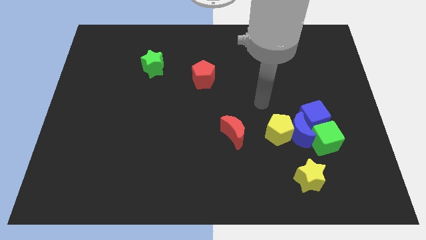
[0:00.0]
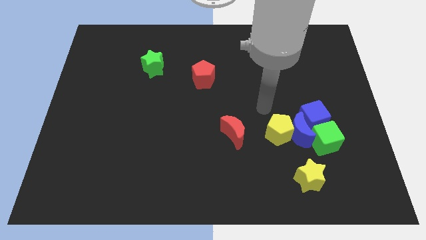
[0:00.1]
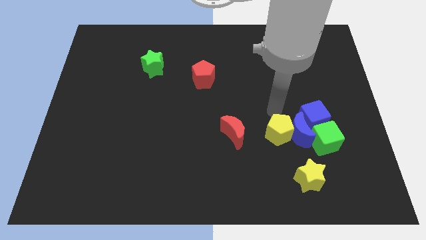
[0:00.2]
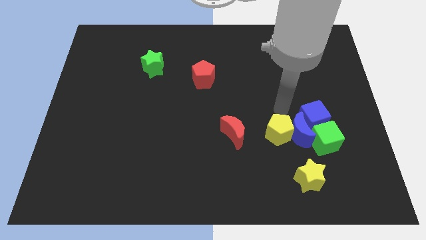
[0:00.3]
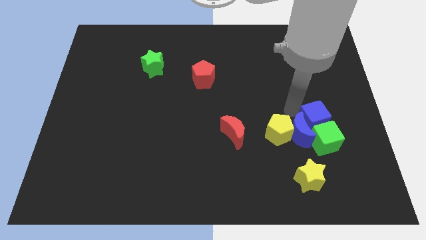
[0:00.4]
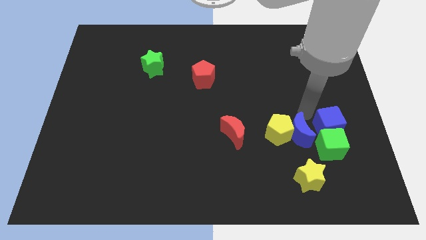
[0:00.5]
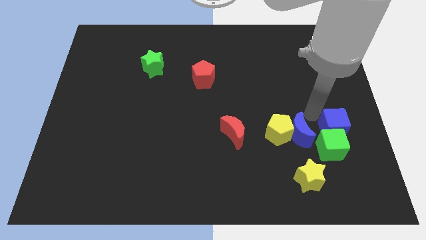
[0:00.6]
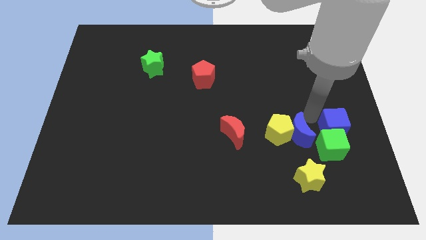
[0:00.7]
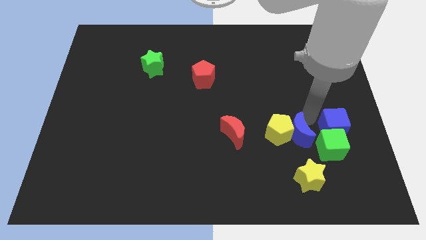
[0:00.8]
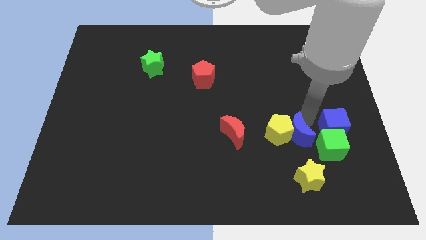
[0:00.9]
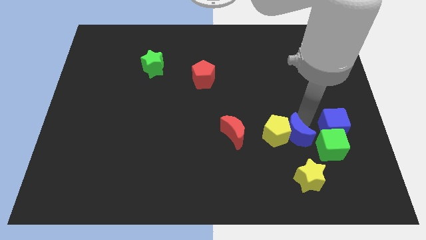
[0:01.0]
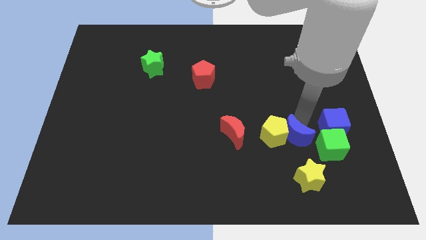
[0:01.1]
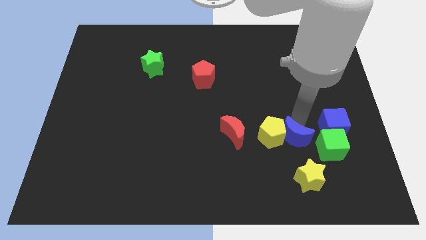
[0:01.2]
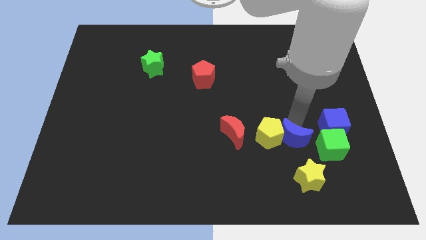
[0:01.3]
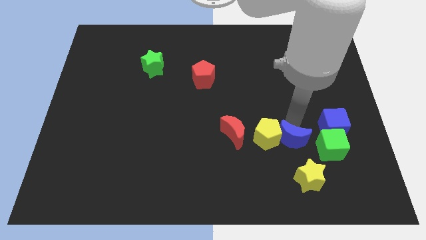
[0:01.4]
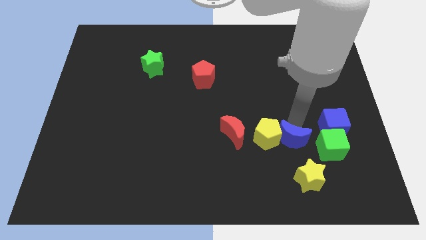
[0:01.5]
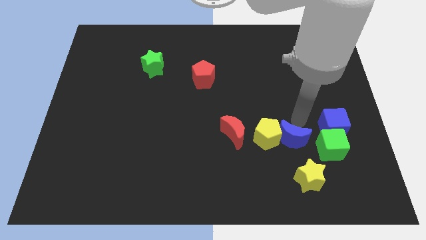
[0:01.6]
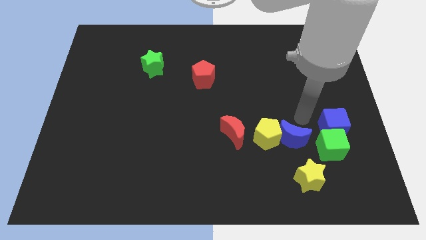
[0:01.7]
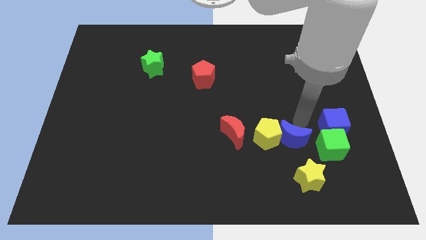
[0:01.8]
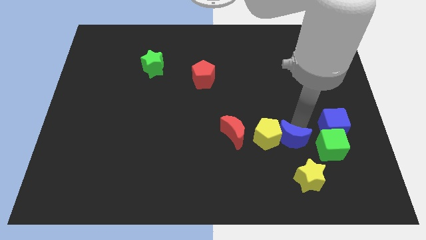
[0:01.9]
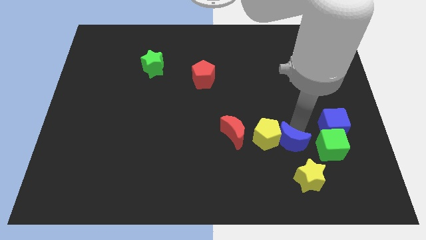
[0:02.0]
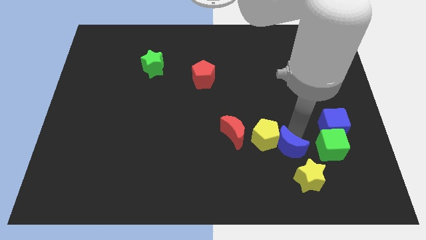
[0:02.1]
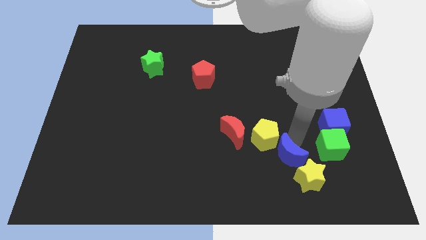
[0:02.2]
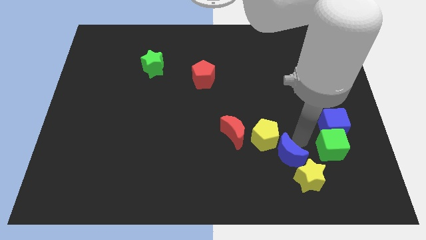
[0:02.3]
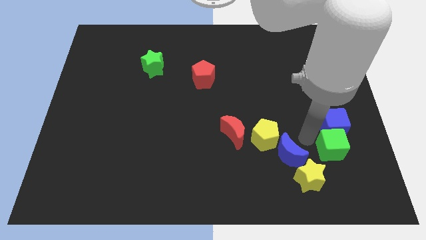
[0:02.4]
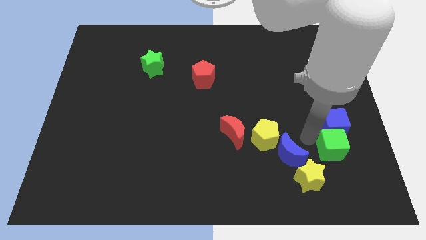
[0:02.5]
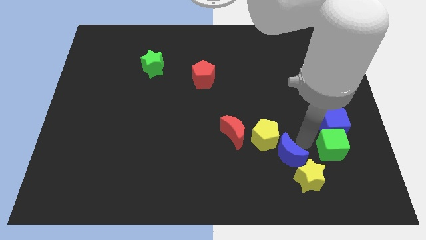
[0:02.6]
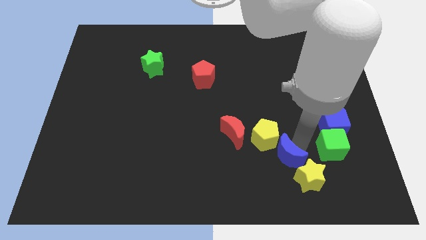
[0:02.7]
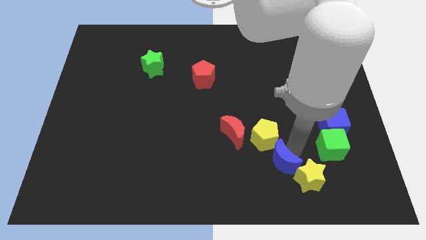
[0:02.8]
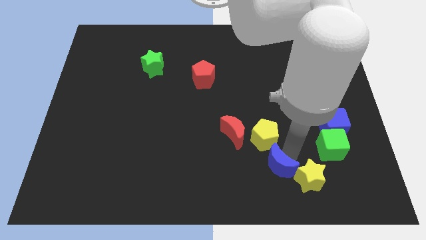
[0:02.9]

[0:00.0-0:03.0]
pull the blue moon apart from the yellow pentagon, blue cube, and green cube

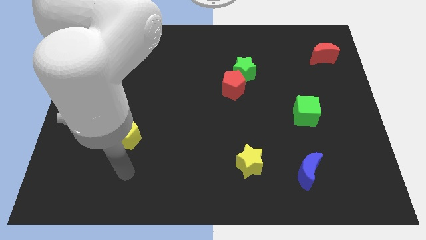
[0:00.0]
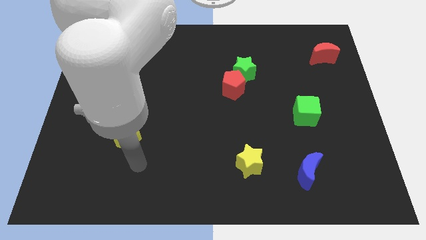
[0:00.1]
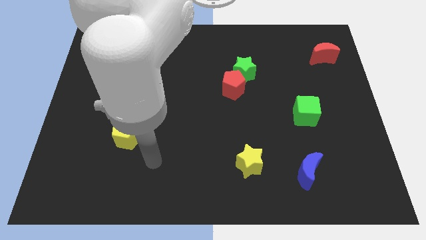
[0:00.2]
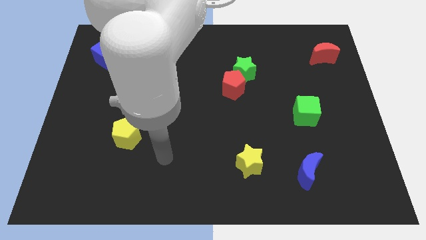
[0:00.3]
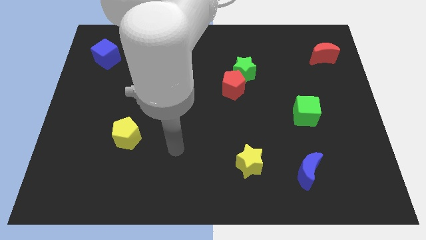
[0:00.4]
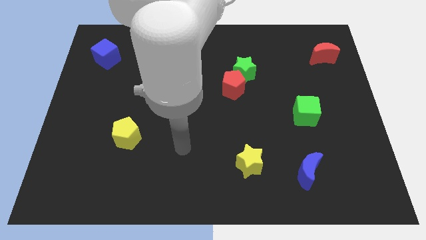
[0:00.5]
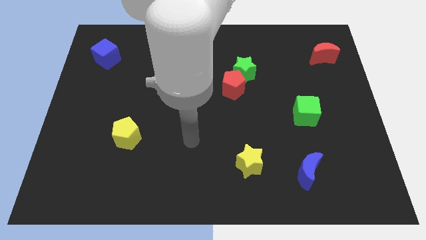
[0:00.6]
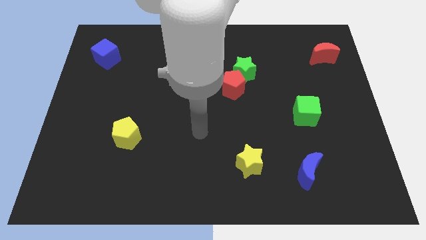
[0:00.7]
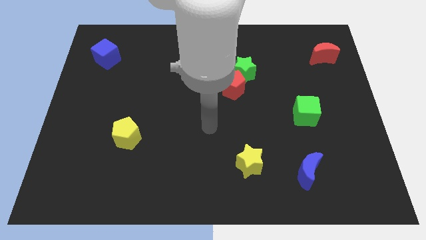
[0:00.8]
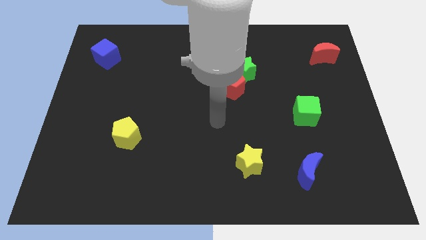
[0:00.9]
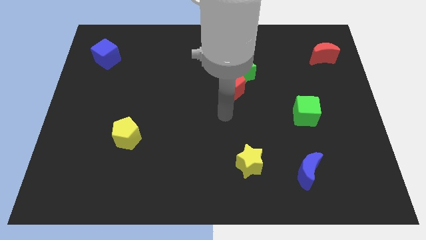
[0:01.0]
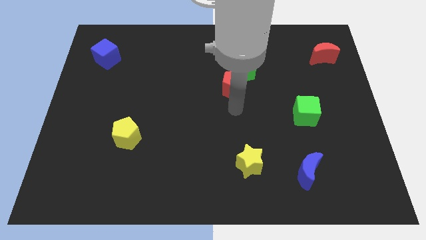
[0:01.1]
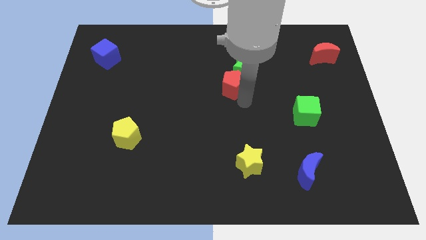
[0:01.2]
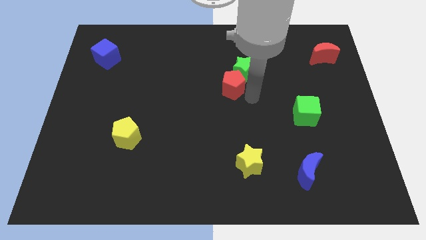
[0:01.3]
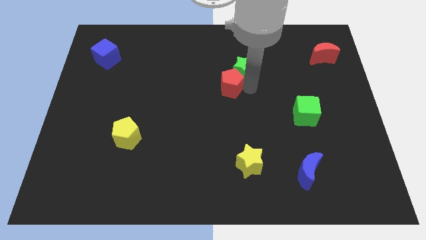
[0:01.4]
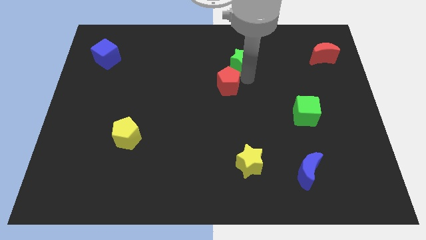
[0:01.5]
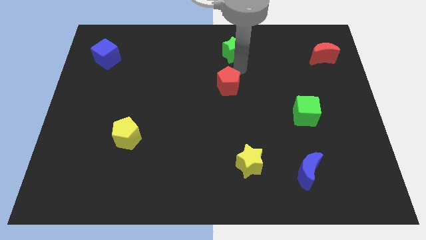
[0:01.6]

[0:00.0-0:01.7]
separate the red pentagon from the green star

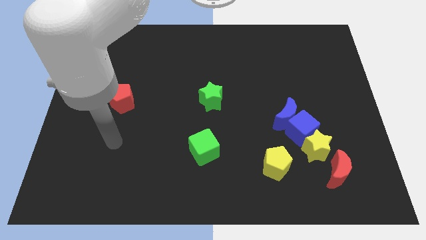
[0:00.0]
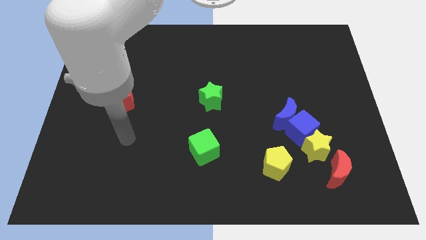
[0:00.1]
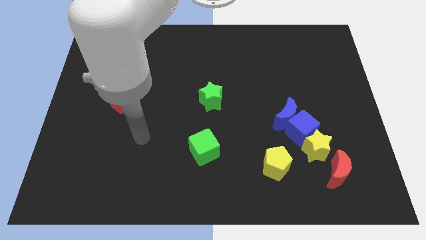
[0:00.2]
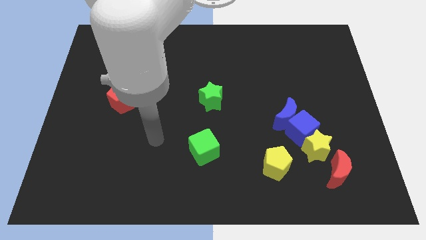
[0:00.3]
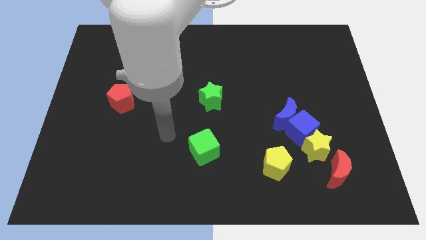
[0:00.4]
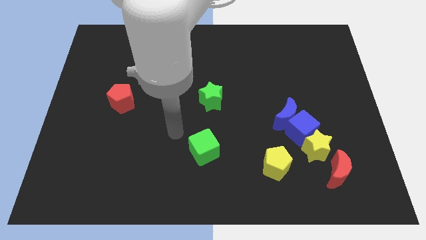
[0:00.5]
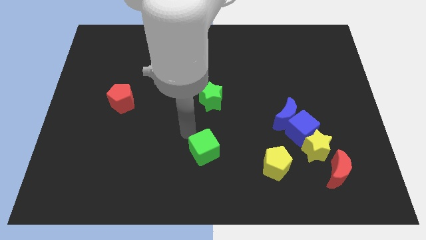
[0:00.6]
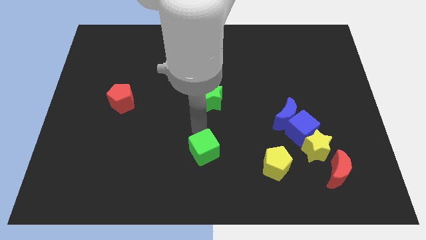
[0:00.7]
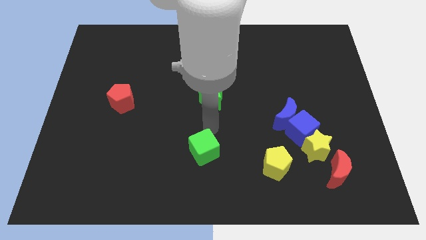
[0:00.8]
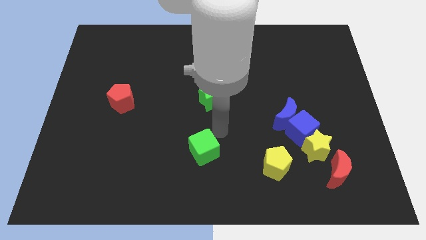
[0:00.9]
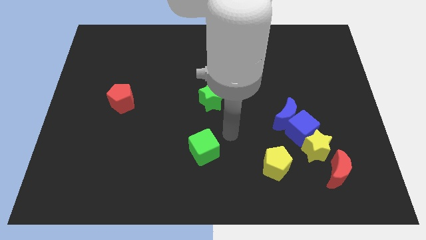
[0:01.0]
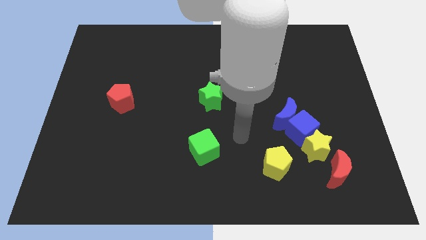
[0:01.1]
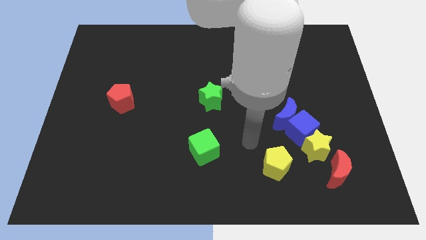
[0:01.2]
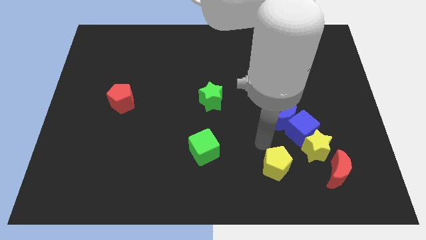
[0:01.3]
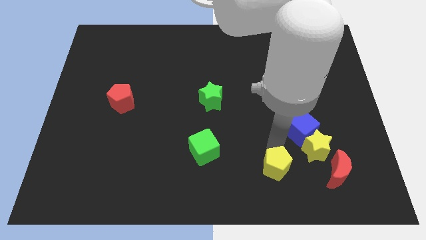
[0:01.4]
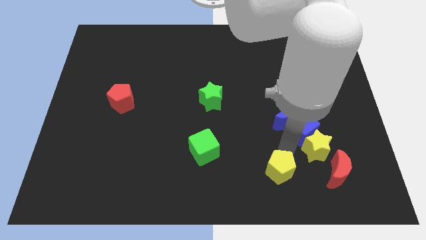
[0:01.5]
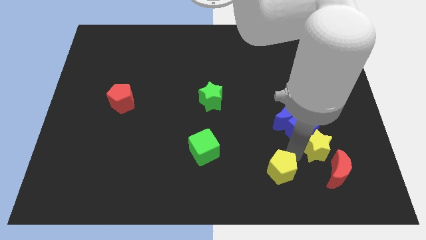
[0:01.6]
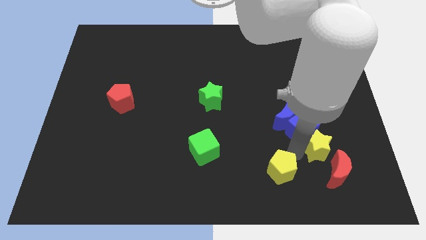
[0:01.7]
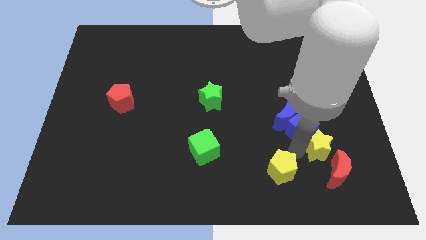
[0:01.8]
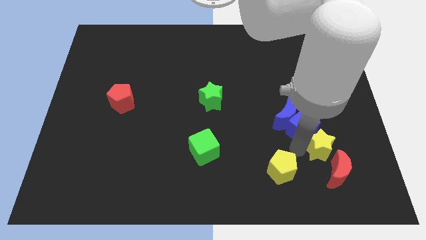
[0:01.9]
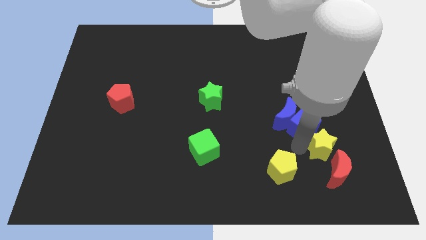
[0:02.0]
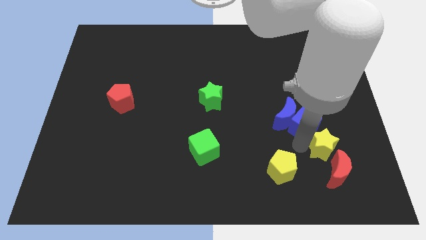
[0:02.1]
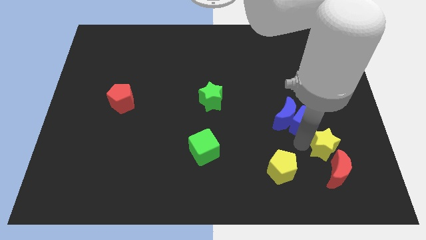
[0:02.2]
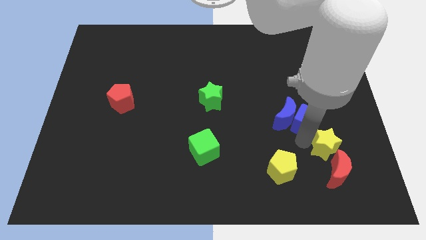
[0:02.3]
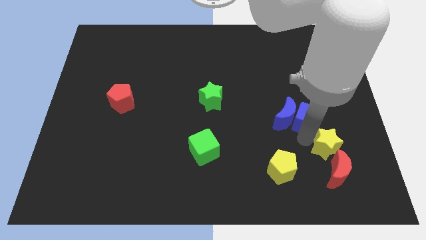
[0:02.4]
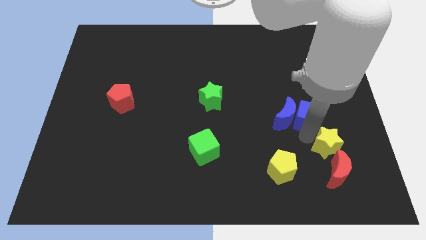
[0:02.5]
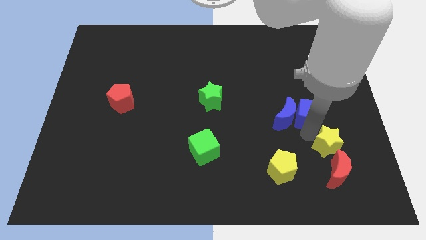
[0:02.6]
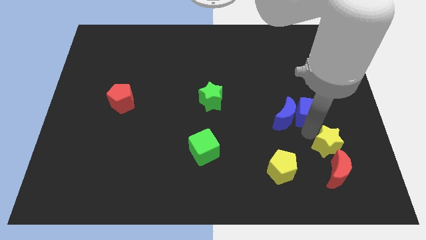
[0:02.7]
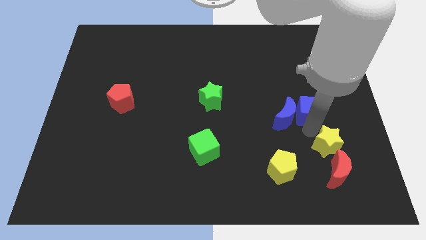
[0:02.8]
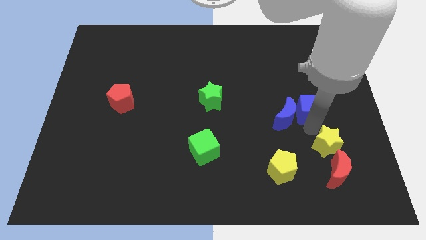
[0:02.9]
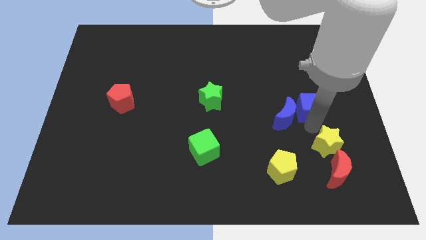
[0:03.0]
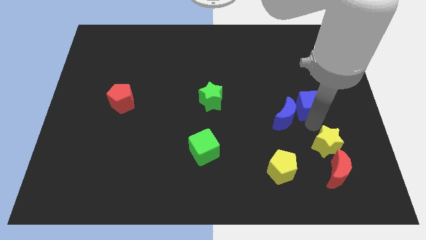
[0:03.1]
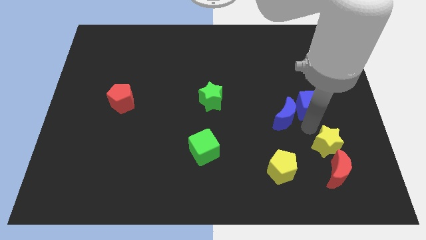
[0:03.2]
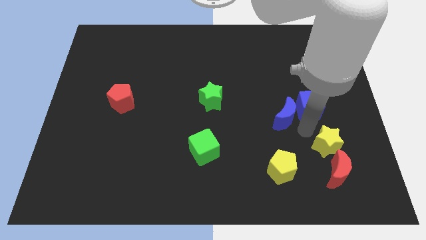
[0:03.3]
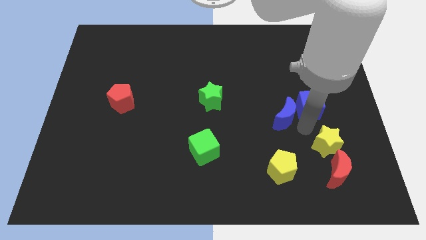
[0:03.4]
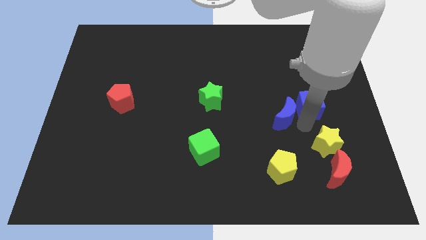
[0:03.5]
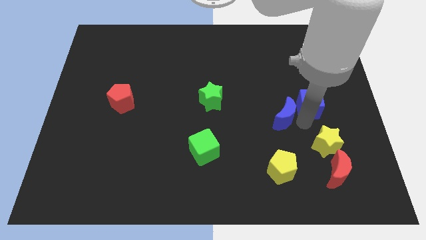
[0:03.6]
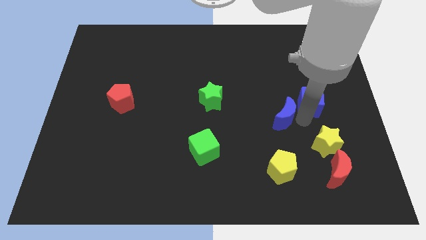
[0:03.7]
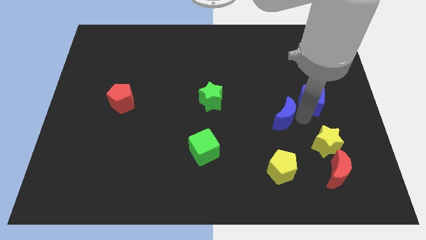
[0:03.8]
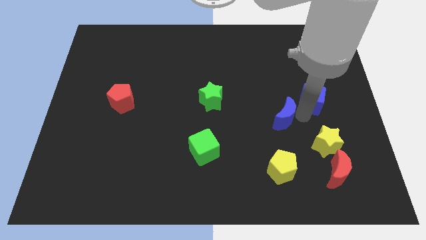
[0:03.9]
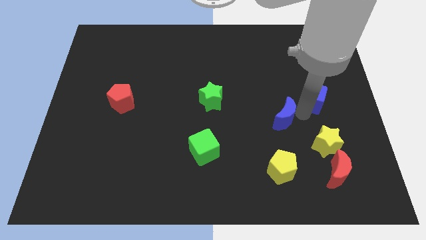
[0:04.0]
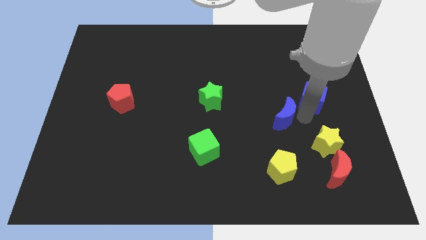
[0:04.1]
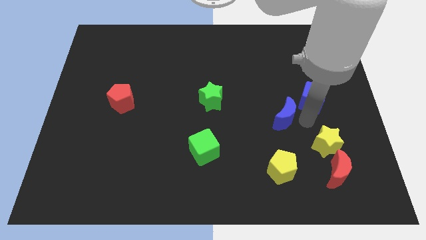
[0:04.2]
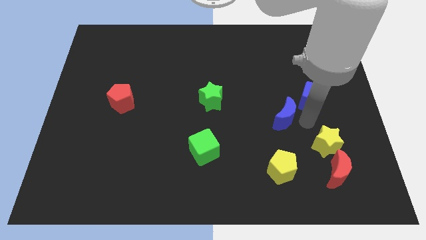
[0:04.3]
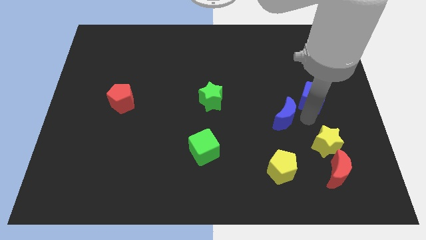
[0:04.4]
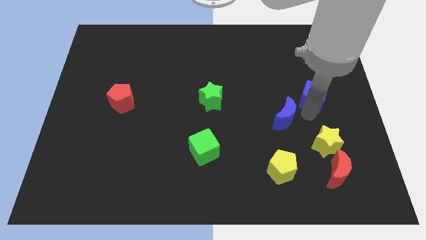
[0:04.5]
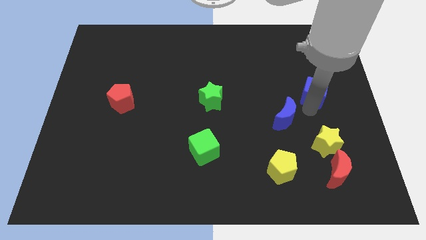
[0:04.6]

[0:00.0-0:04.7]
separate the blue cube from the blue moon and yellow star
